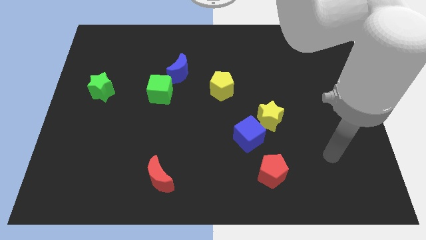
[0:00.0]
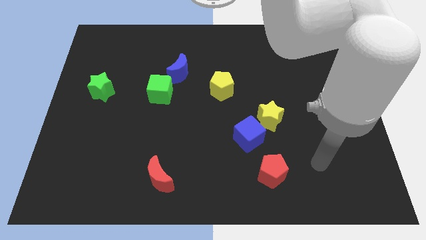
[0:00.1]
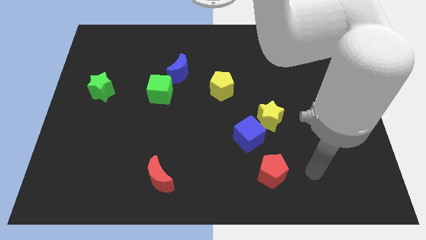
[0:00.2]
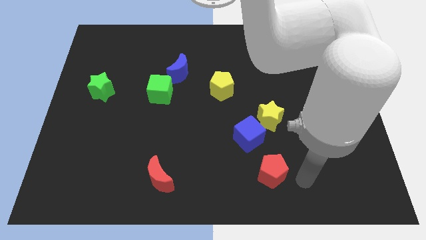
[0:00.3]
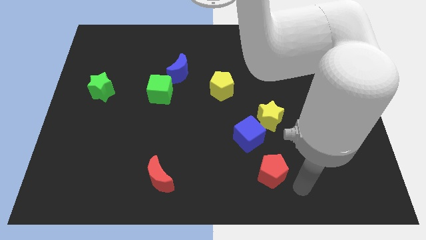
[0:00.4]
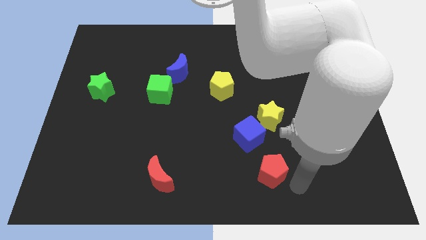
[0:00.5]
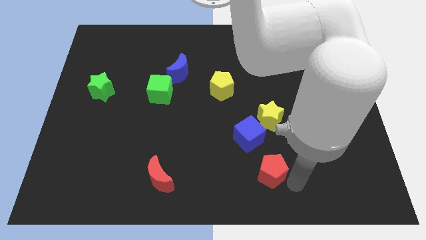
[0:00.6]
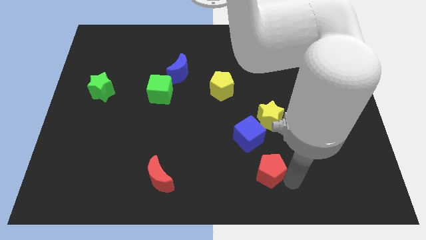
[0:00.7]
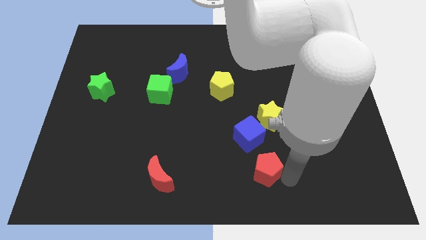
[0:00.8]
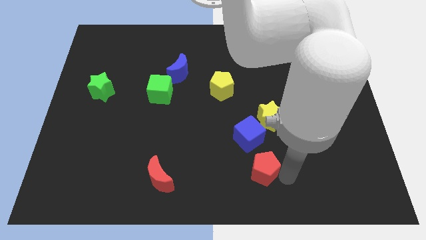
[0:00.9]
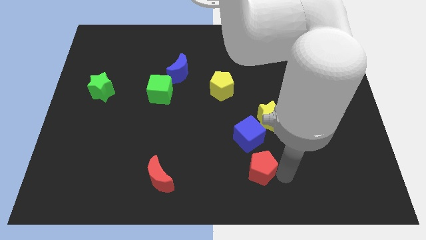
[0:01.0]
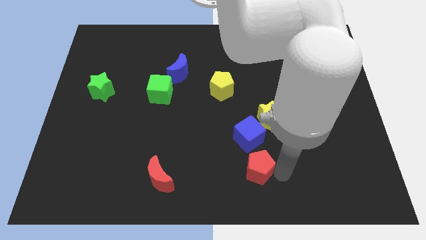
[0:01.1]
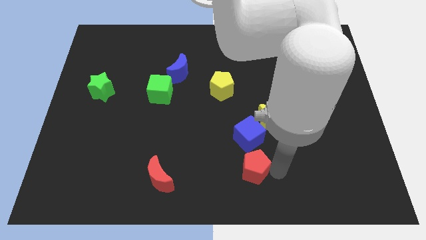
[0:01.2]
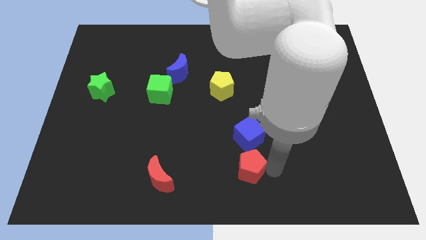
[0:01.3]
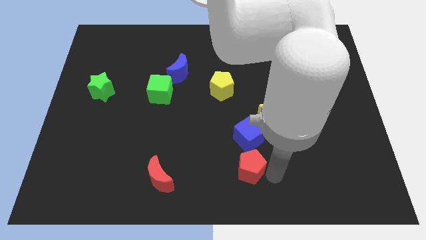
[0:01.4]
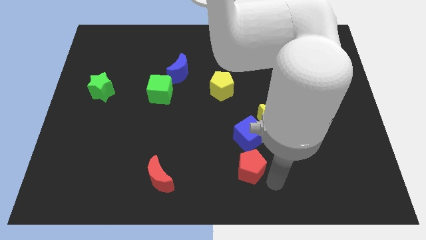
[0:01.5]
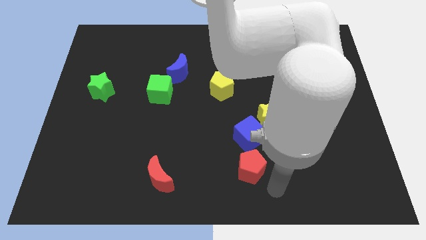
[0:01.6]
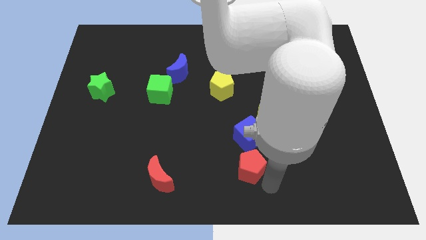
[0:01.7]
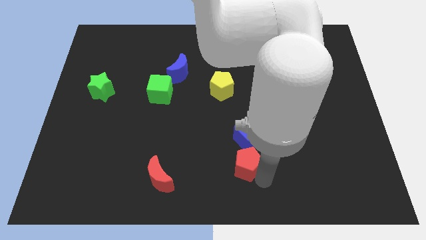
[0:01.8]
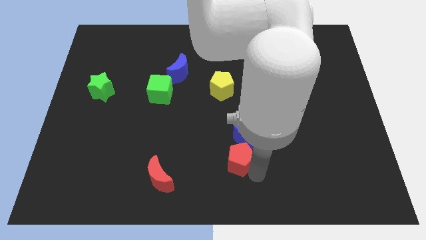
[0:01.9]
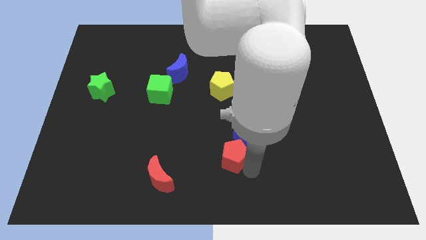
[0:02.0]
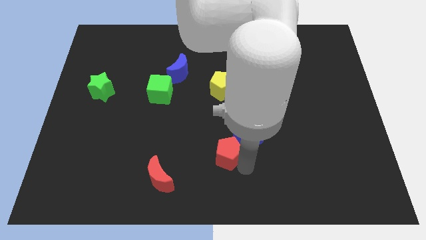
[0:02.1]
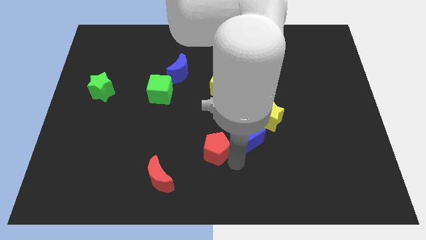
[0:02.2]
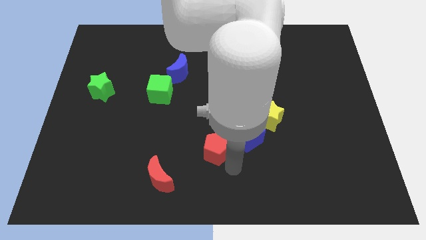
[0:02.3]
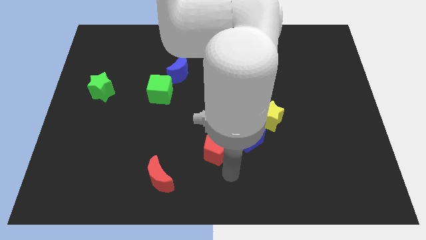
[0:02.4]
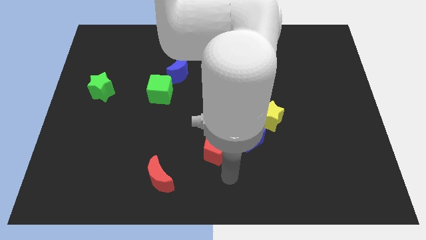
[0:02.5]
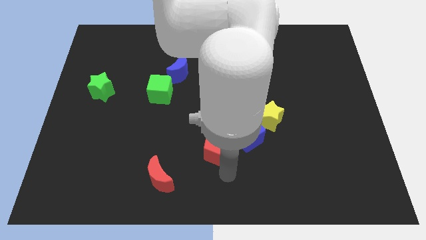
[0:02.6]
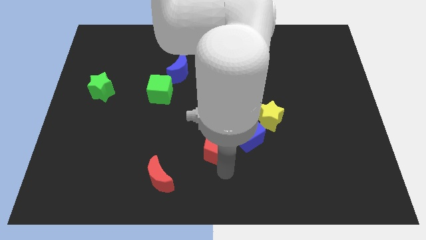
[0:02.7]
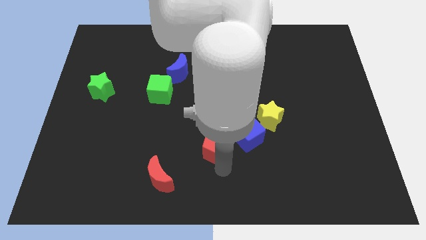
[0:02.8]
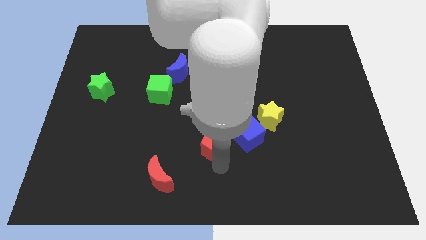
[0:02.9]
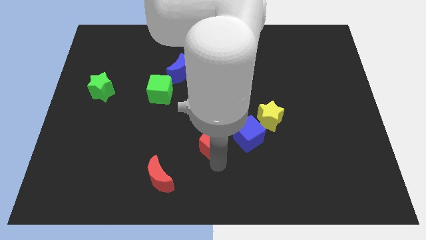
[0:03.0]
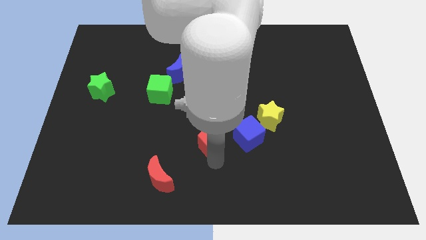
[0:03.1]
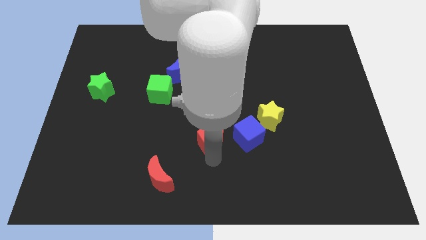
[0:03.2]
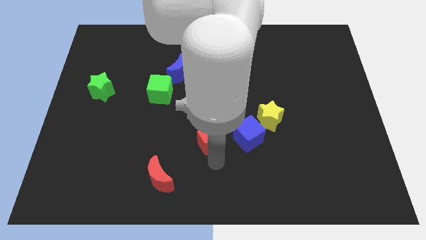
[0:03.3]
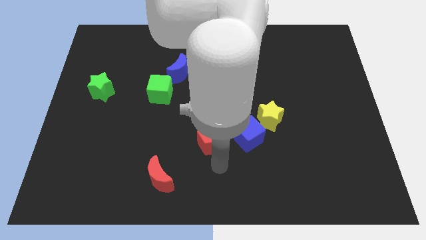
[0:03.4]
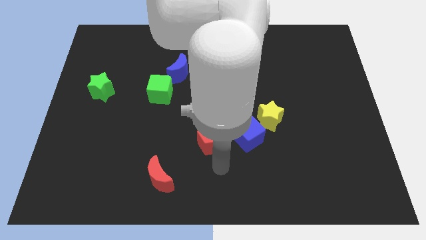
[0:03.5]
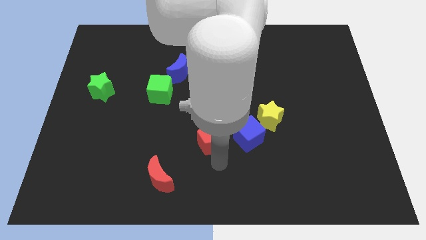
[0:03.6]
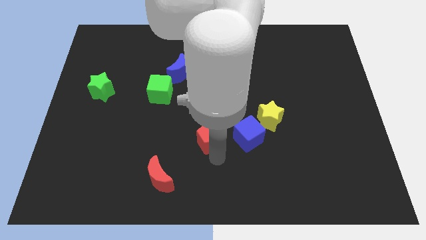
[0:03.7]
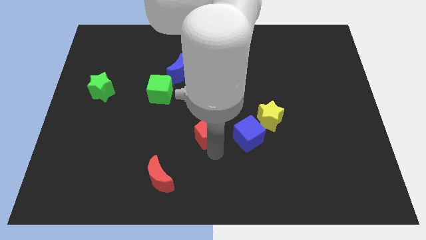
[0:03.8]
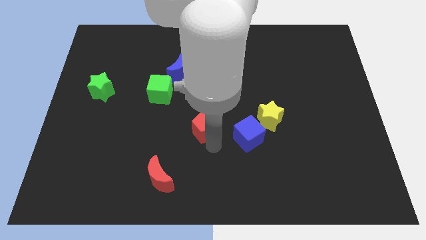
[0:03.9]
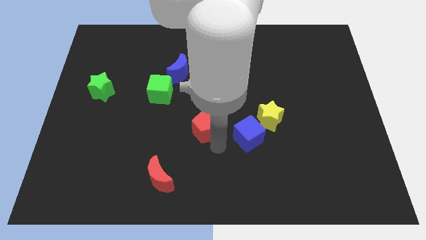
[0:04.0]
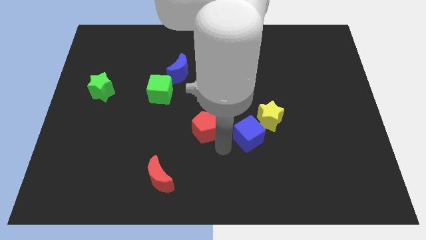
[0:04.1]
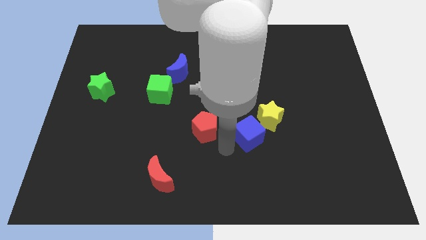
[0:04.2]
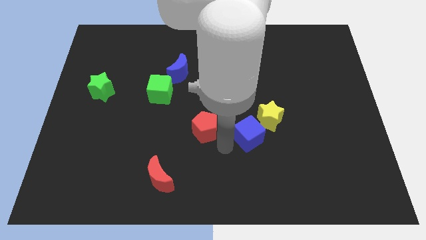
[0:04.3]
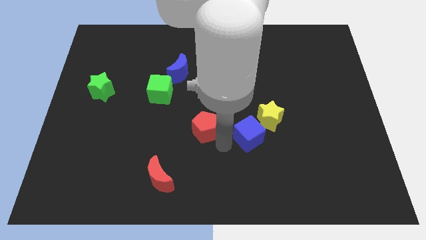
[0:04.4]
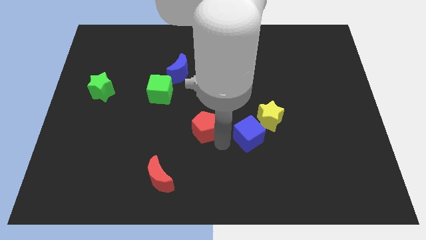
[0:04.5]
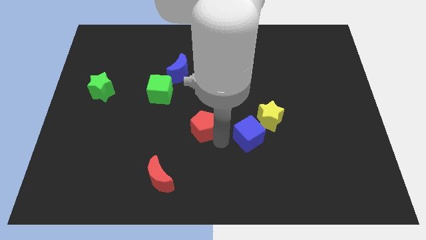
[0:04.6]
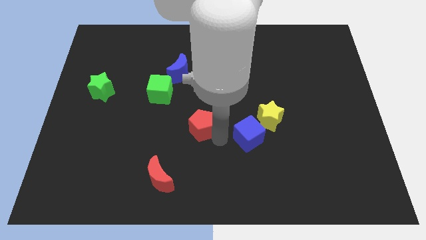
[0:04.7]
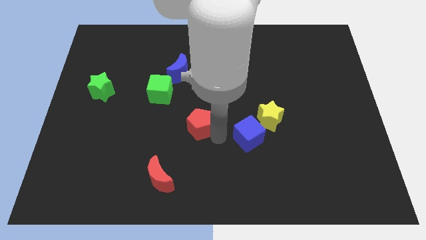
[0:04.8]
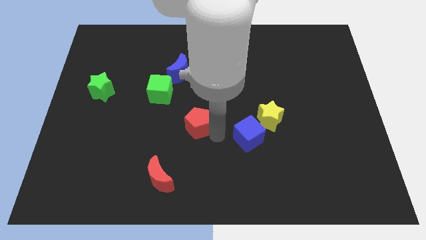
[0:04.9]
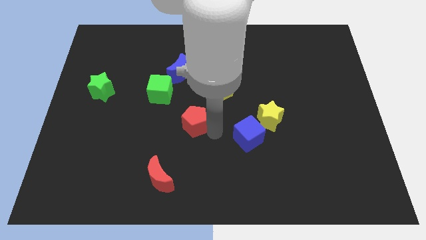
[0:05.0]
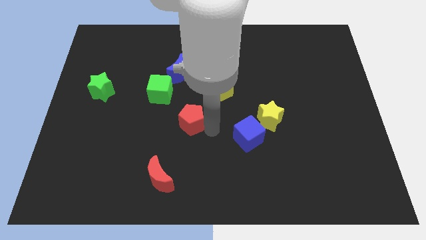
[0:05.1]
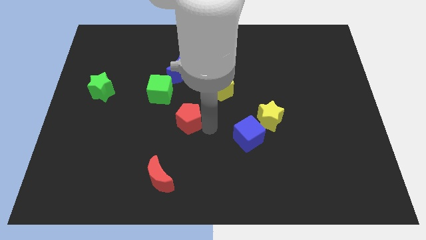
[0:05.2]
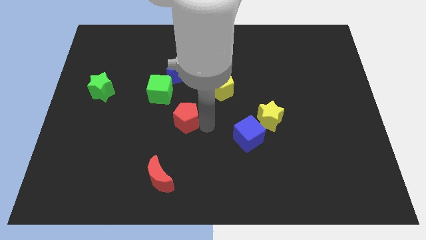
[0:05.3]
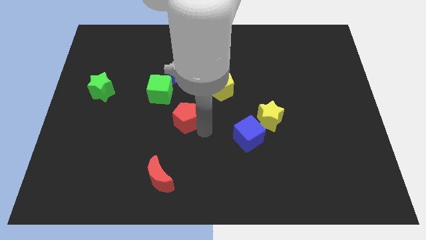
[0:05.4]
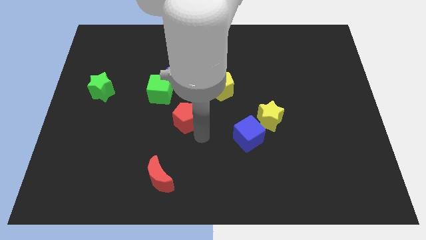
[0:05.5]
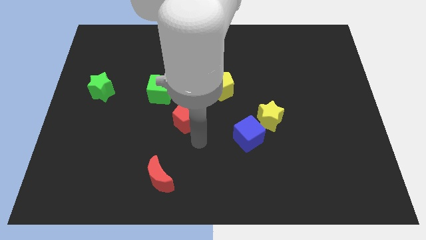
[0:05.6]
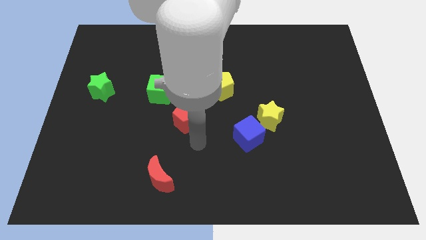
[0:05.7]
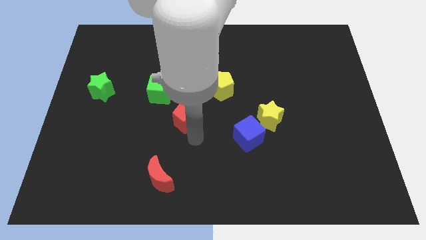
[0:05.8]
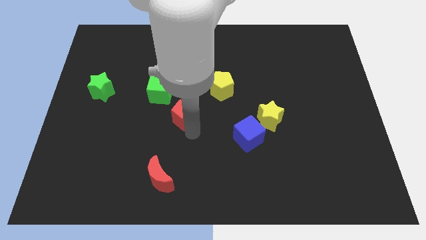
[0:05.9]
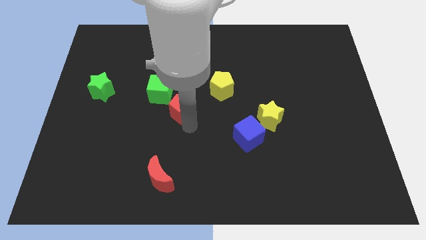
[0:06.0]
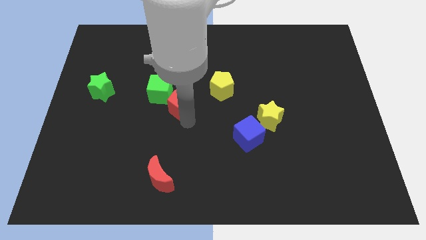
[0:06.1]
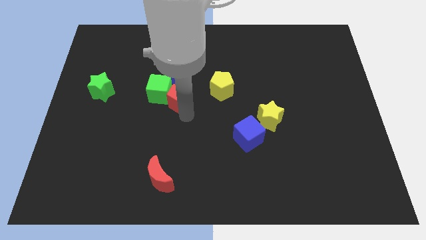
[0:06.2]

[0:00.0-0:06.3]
slide the red pentagon to the green cube

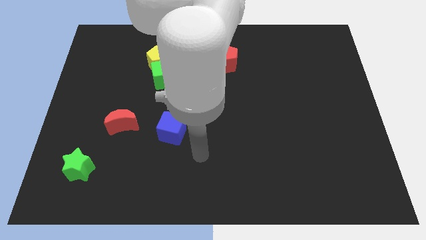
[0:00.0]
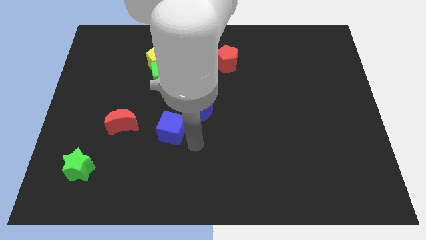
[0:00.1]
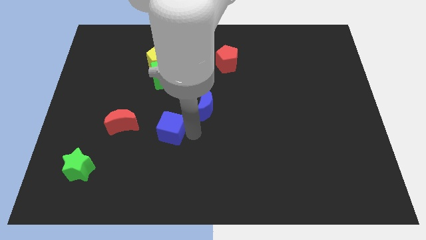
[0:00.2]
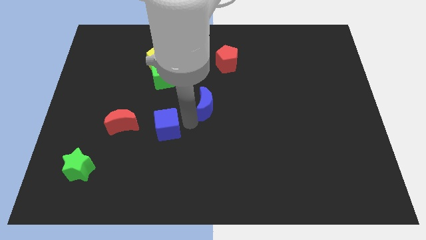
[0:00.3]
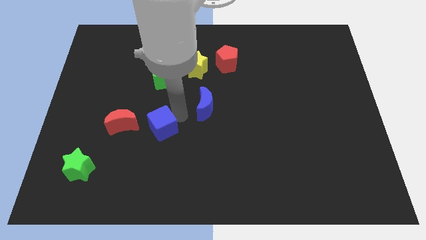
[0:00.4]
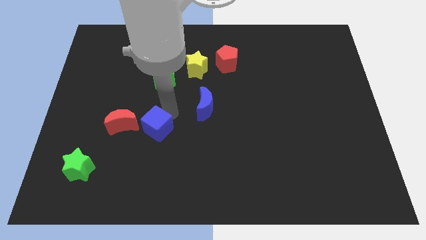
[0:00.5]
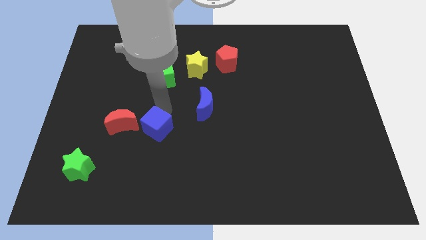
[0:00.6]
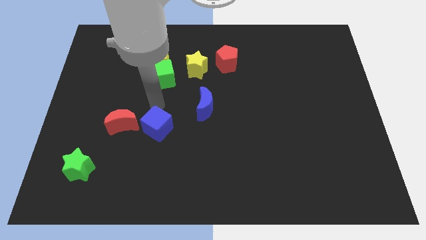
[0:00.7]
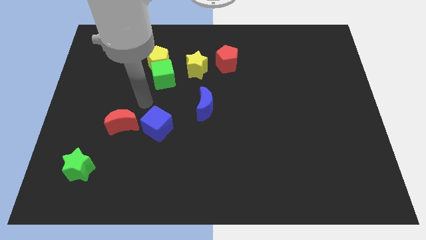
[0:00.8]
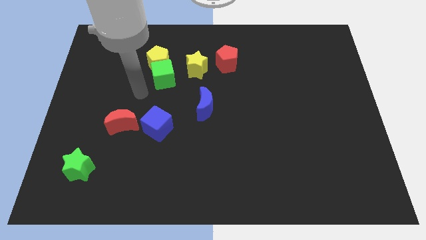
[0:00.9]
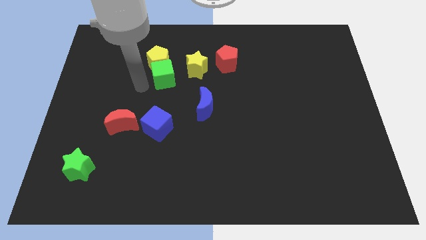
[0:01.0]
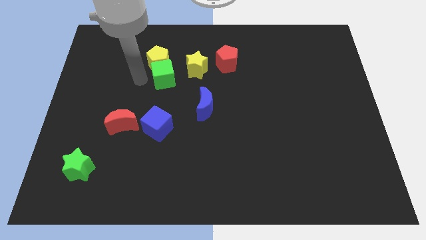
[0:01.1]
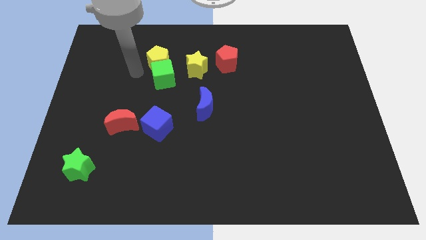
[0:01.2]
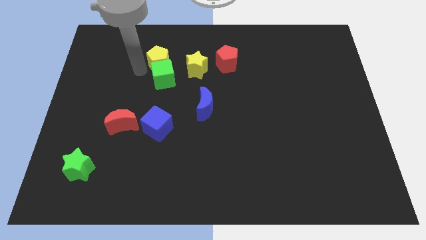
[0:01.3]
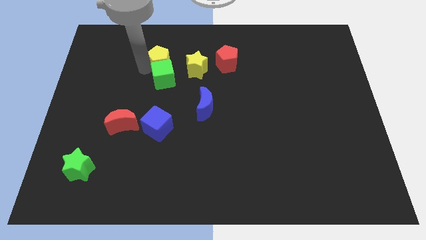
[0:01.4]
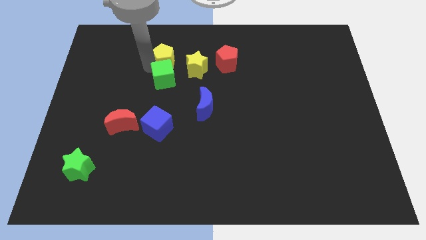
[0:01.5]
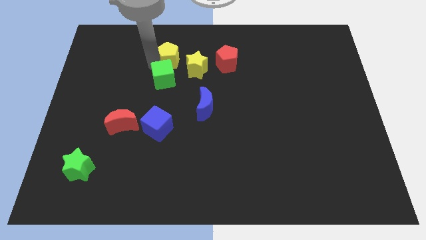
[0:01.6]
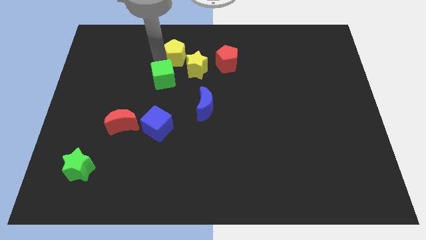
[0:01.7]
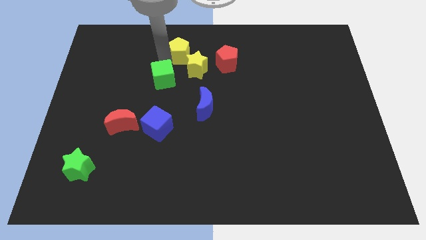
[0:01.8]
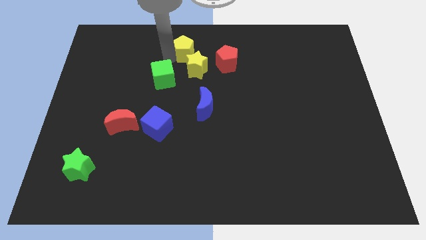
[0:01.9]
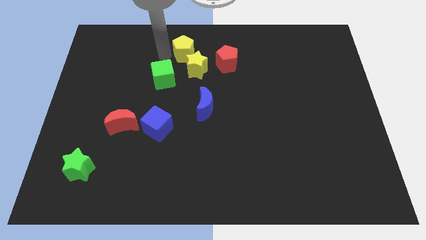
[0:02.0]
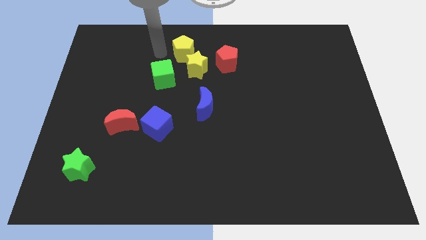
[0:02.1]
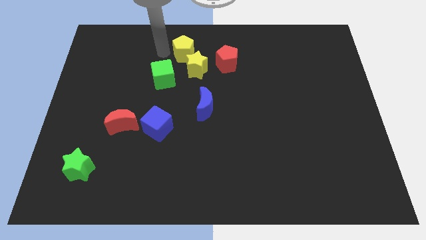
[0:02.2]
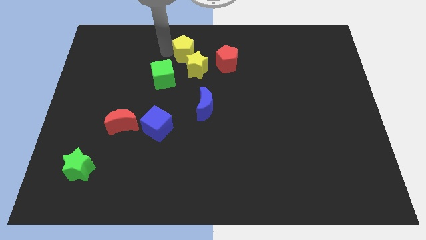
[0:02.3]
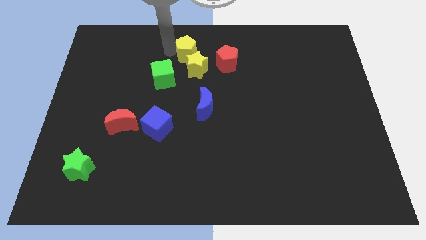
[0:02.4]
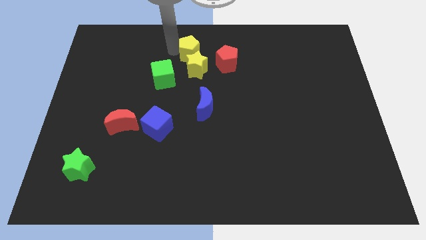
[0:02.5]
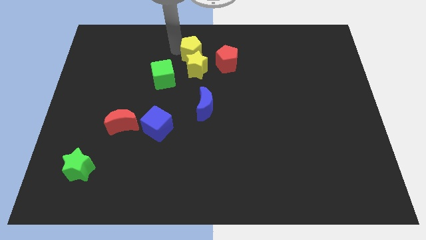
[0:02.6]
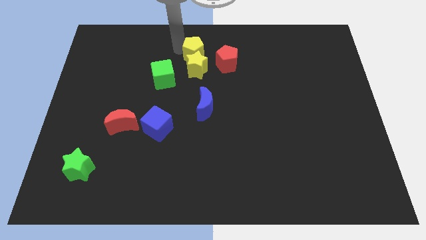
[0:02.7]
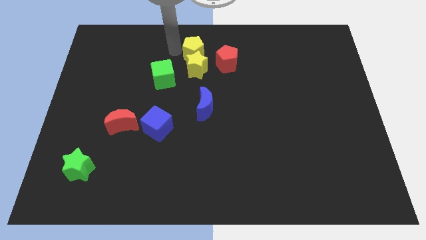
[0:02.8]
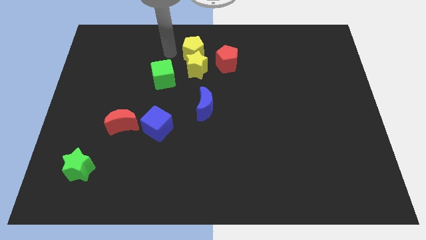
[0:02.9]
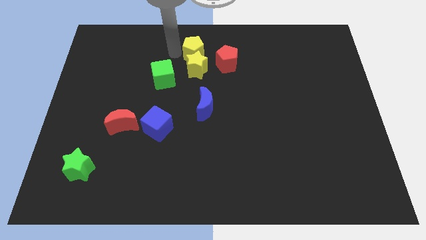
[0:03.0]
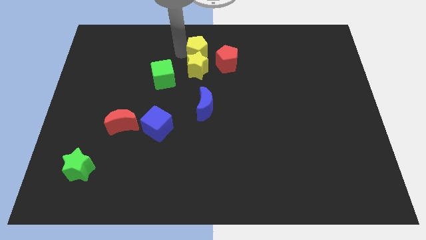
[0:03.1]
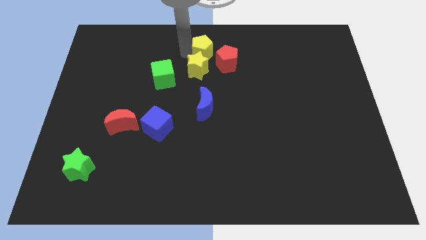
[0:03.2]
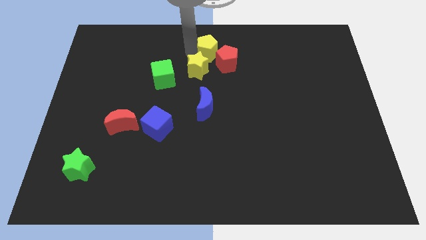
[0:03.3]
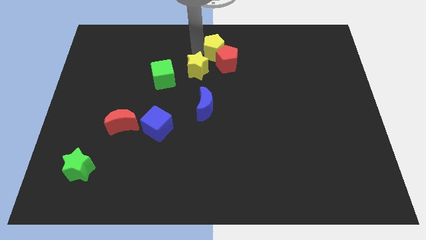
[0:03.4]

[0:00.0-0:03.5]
put the yellow pentagon next to the red pentagon
